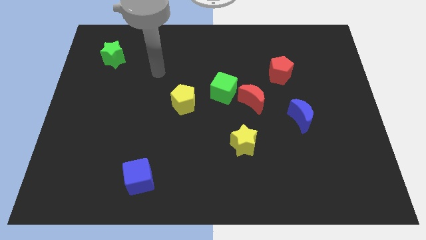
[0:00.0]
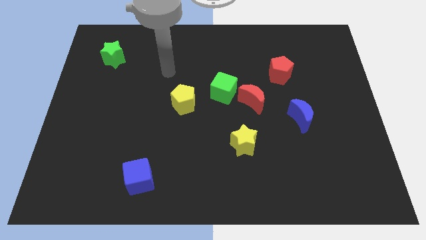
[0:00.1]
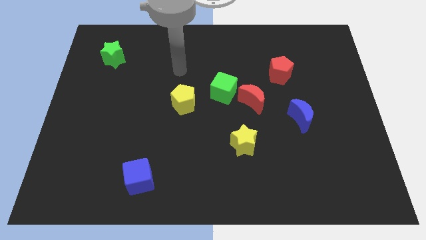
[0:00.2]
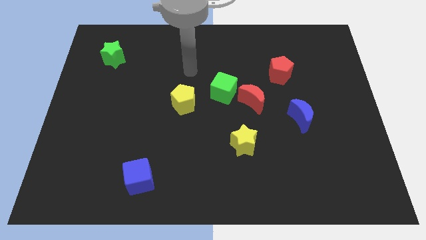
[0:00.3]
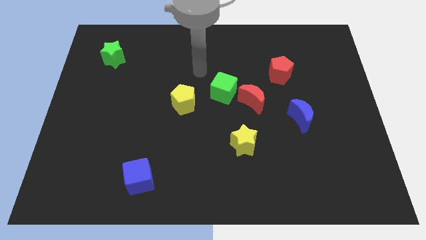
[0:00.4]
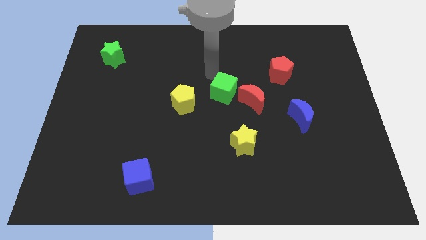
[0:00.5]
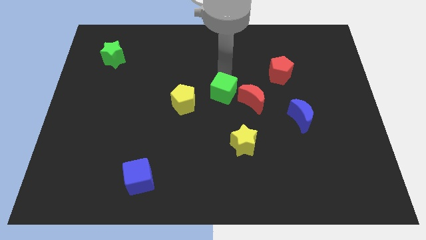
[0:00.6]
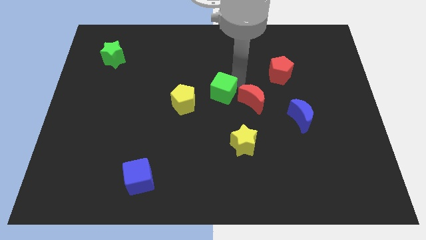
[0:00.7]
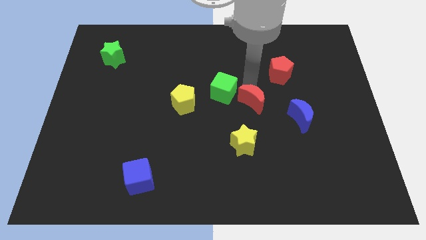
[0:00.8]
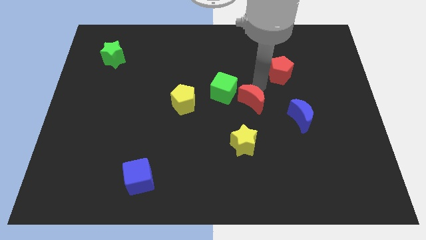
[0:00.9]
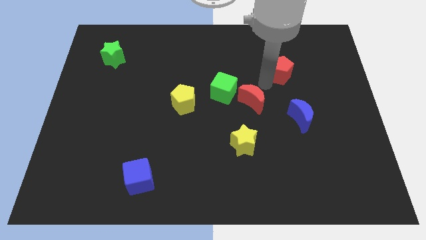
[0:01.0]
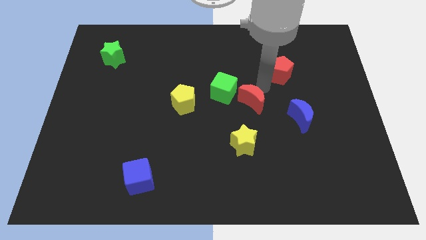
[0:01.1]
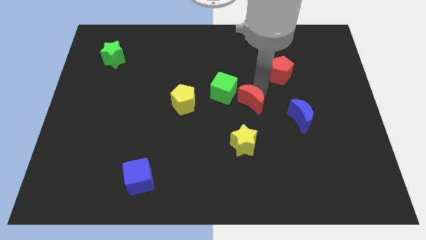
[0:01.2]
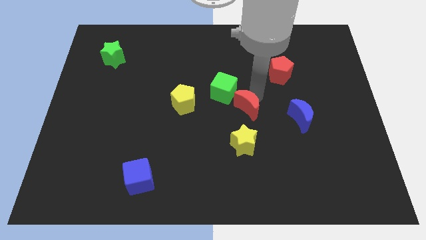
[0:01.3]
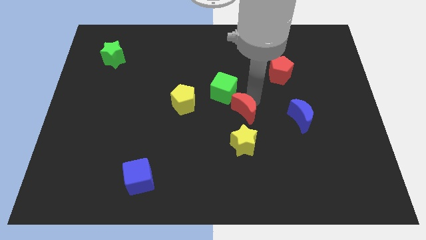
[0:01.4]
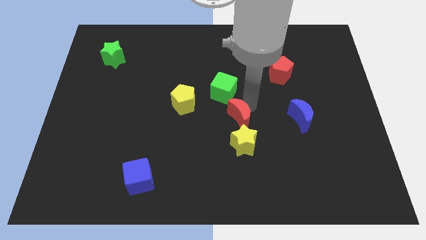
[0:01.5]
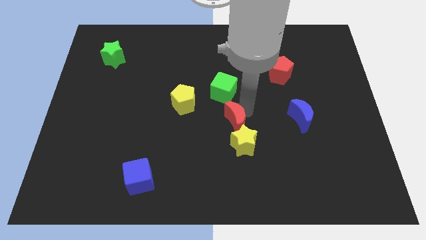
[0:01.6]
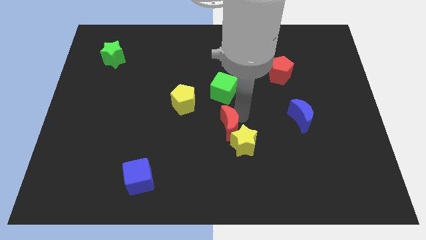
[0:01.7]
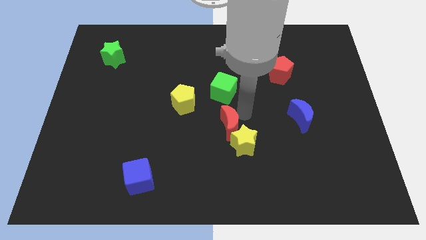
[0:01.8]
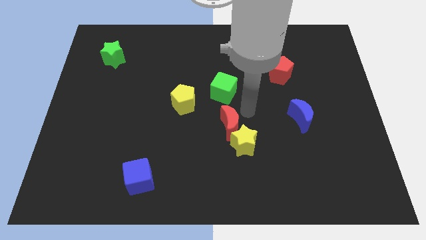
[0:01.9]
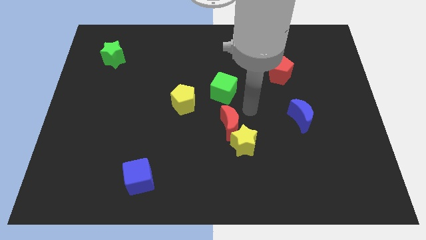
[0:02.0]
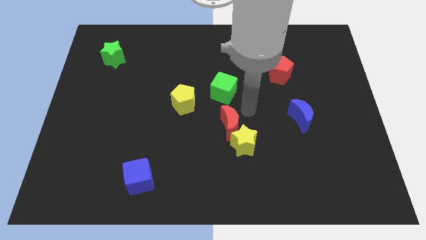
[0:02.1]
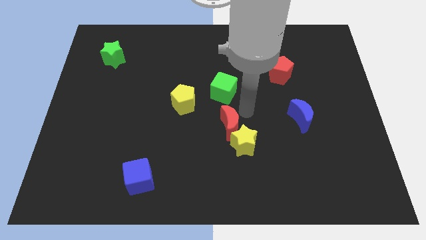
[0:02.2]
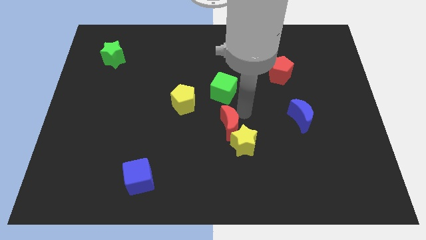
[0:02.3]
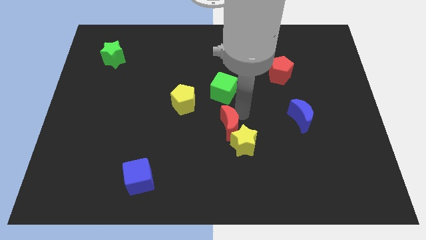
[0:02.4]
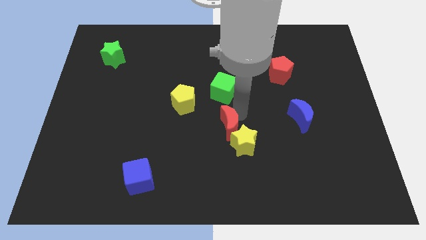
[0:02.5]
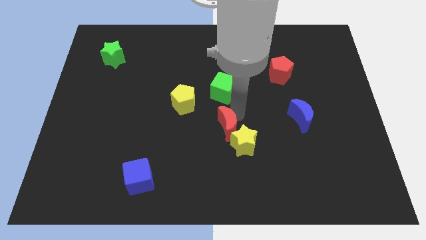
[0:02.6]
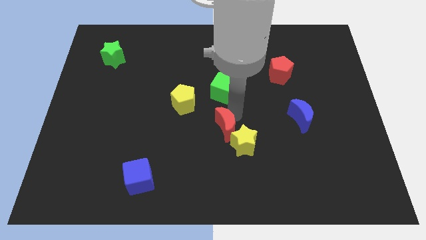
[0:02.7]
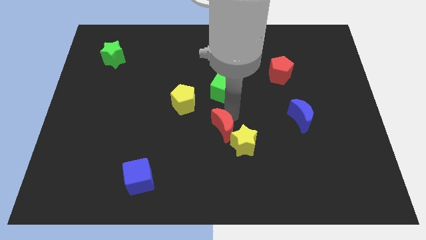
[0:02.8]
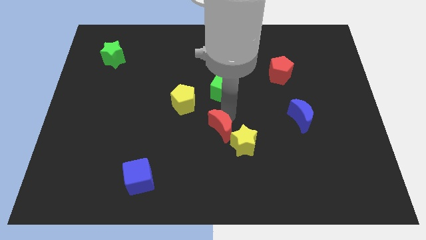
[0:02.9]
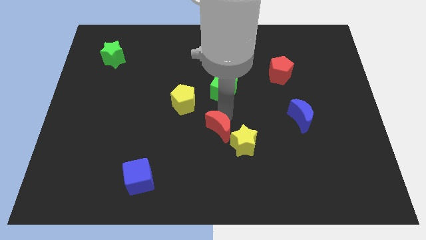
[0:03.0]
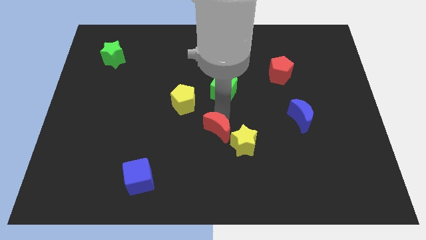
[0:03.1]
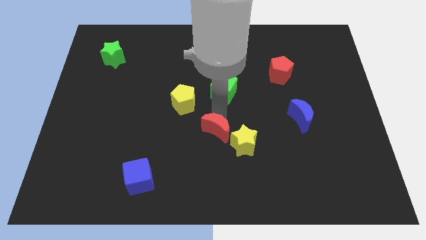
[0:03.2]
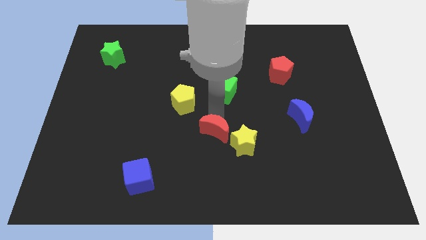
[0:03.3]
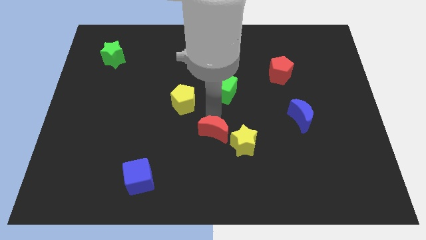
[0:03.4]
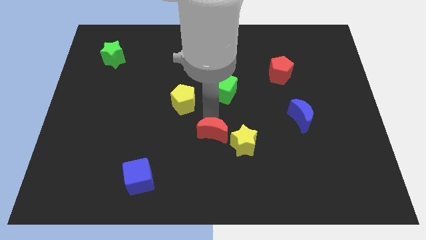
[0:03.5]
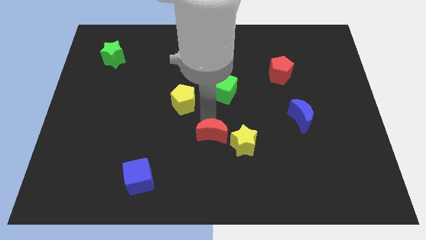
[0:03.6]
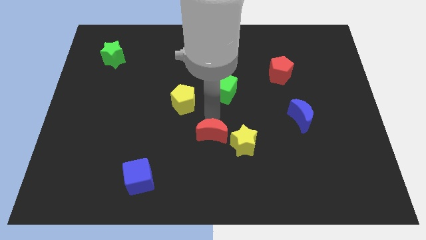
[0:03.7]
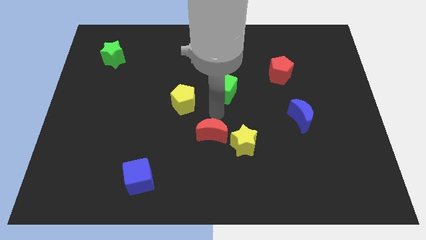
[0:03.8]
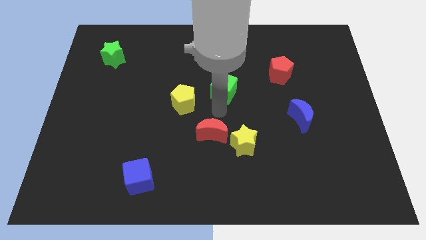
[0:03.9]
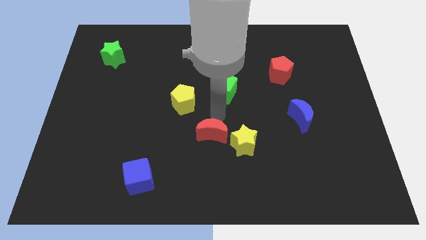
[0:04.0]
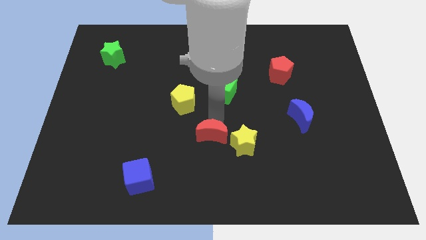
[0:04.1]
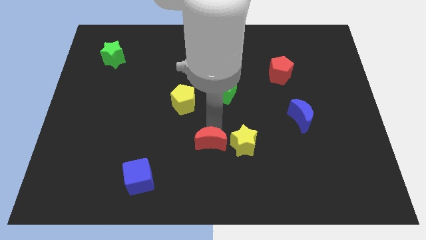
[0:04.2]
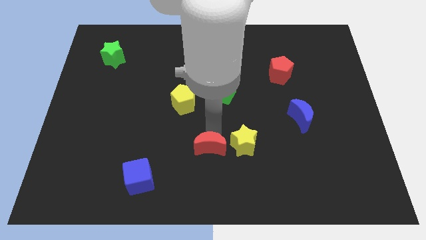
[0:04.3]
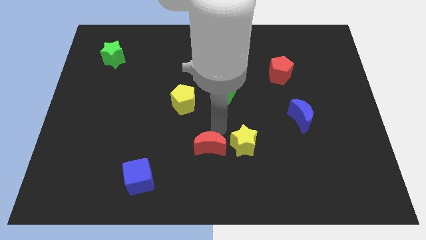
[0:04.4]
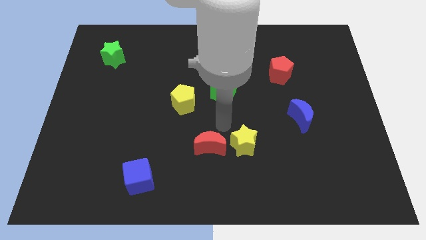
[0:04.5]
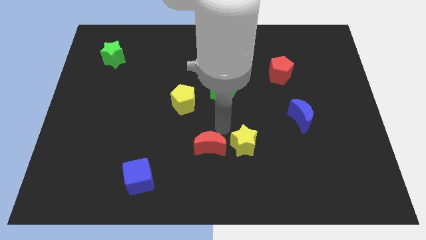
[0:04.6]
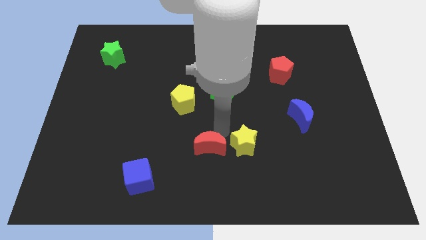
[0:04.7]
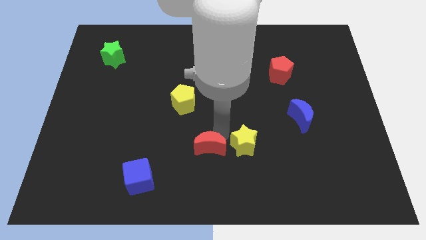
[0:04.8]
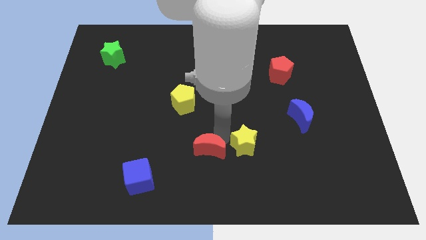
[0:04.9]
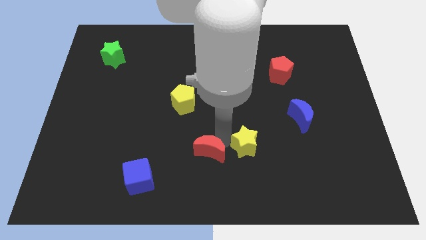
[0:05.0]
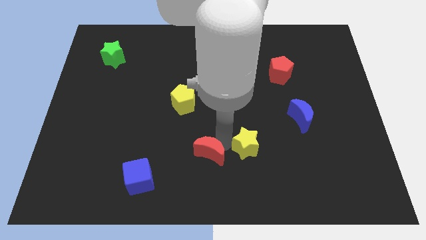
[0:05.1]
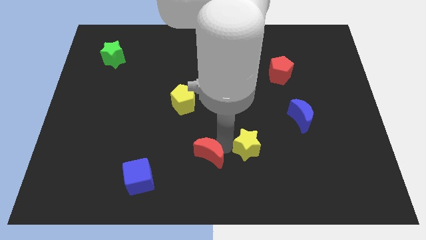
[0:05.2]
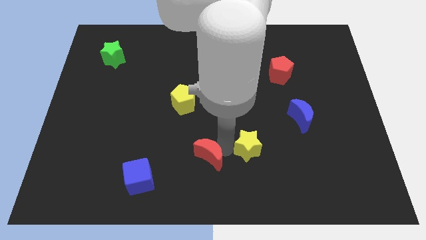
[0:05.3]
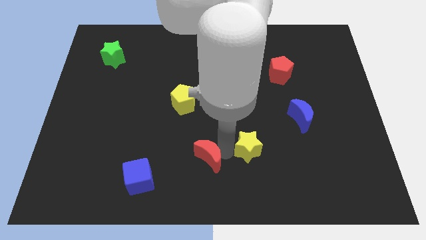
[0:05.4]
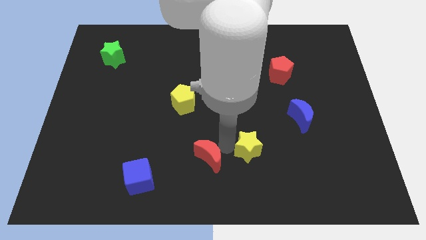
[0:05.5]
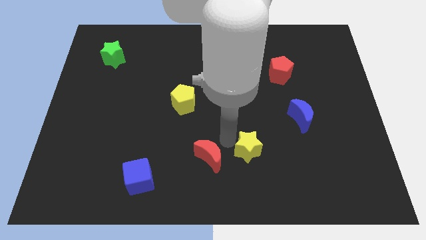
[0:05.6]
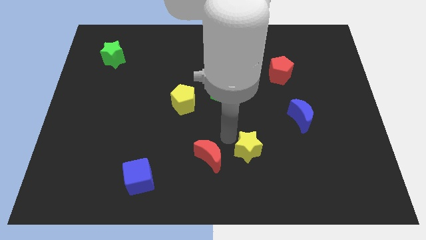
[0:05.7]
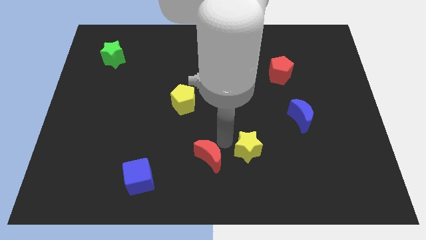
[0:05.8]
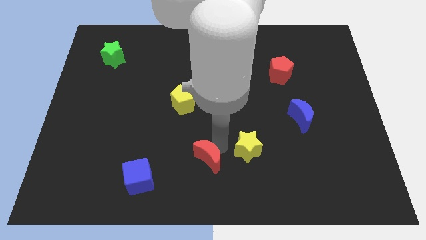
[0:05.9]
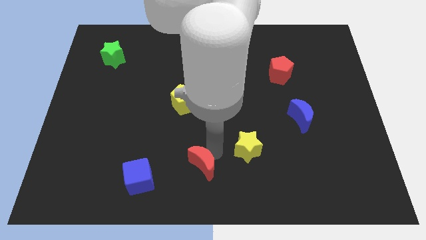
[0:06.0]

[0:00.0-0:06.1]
put the red moon just right of the blue cube

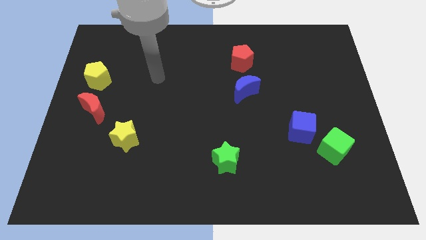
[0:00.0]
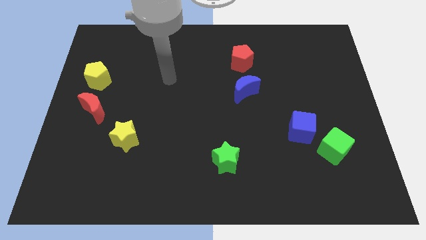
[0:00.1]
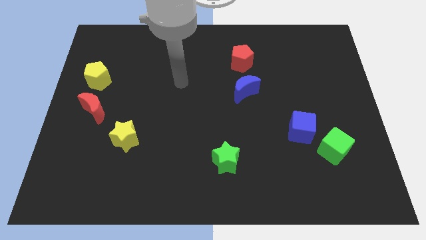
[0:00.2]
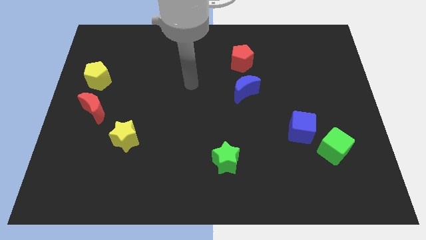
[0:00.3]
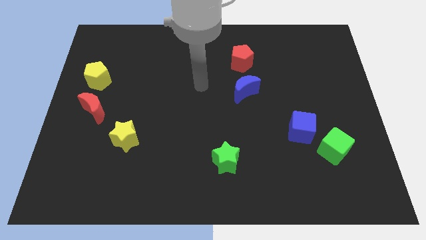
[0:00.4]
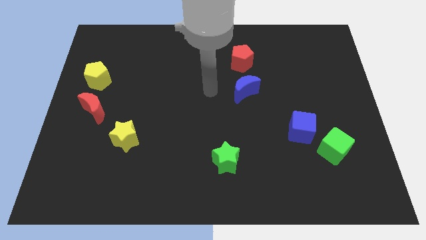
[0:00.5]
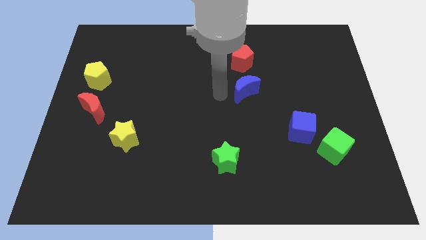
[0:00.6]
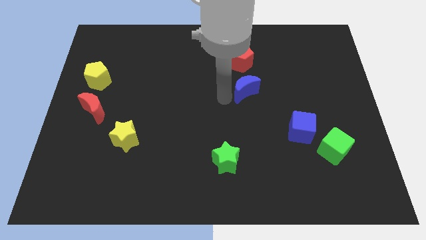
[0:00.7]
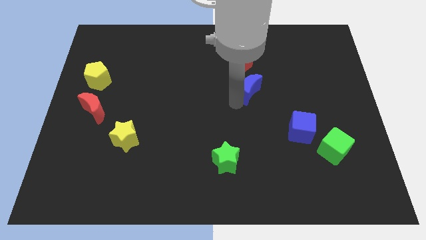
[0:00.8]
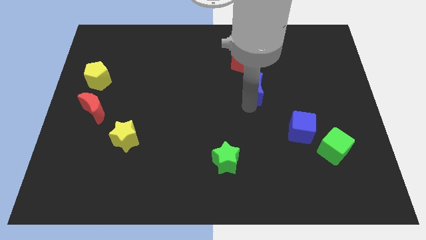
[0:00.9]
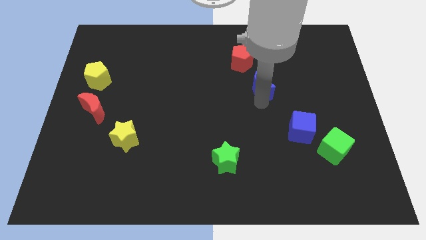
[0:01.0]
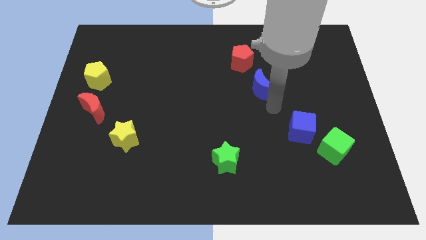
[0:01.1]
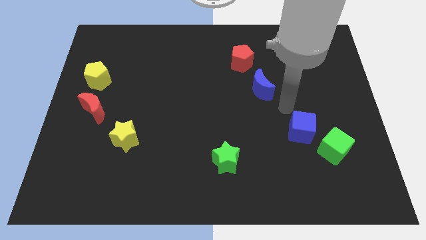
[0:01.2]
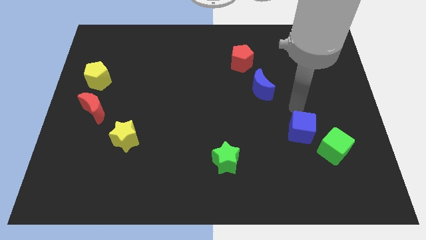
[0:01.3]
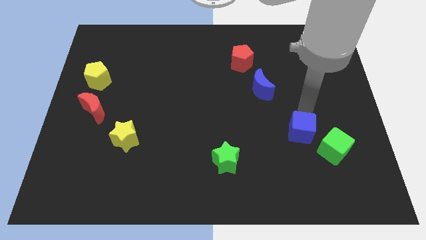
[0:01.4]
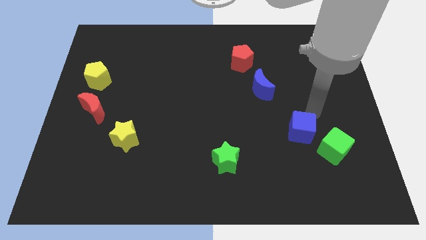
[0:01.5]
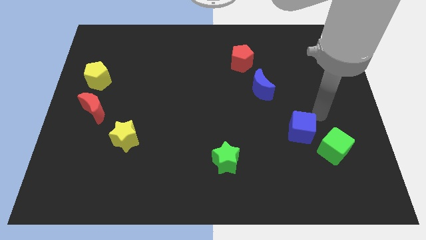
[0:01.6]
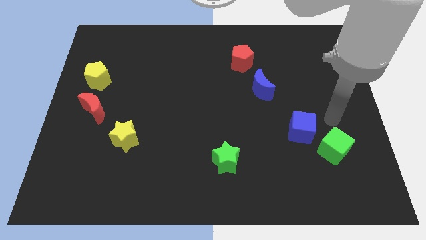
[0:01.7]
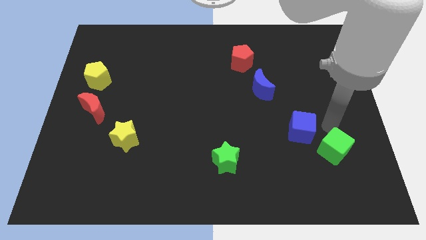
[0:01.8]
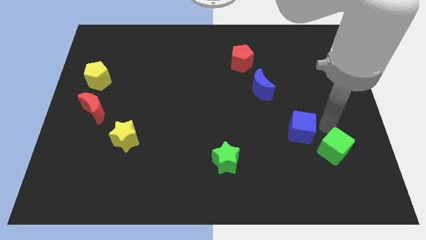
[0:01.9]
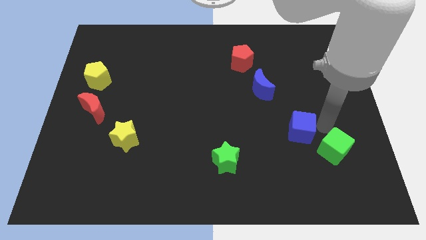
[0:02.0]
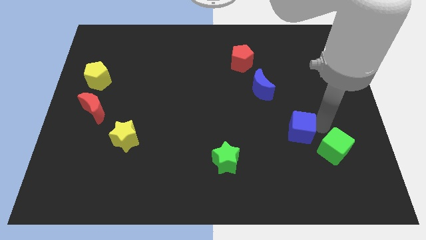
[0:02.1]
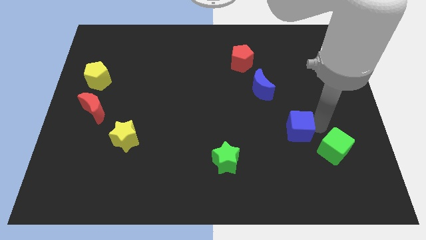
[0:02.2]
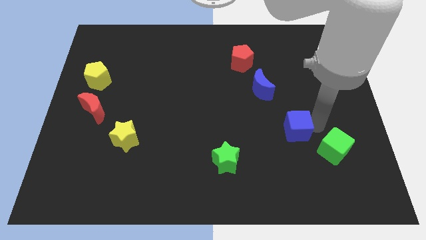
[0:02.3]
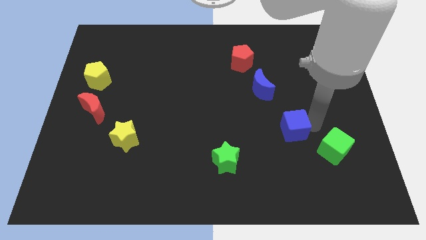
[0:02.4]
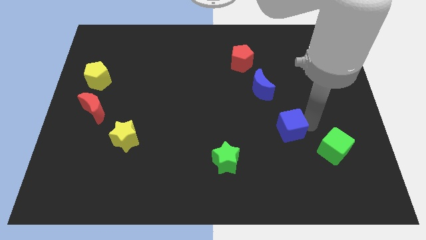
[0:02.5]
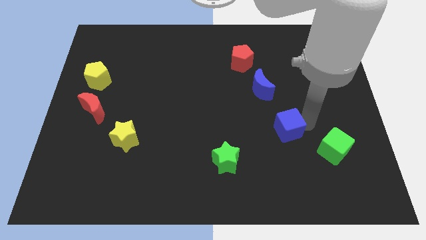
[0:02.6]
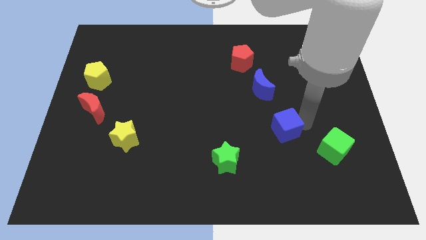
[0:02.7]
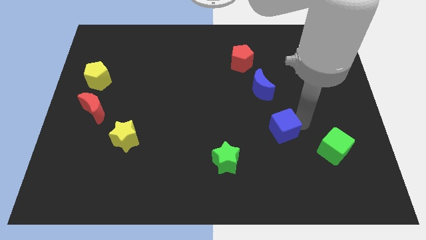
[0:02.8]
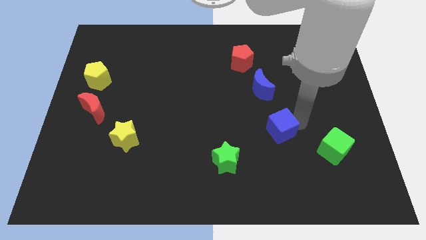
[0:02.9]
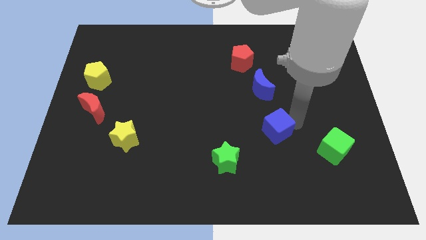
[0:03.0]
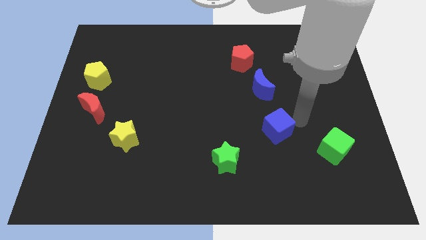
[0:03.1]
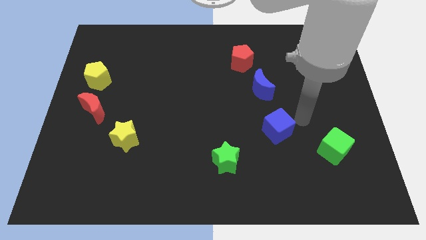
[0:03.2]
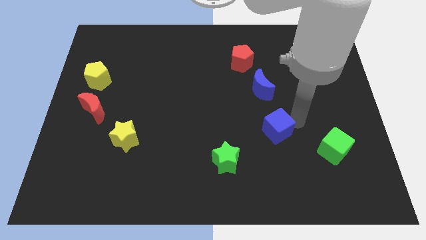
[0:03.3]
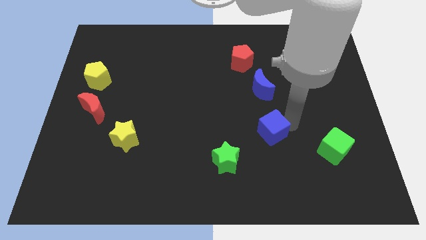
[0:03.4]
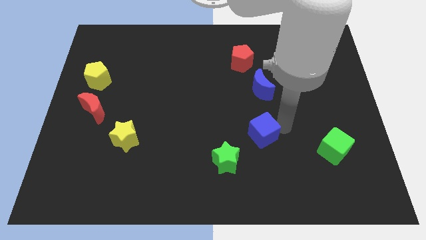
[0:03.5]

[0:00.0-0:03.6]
slide the blue cube to the top right of the green star
